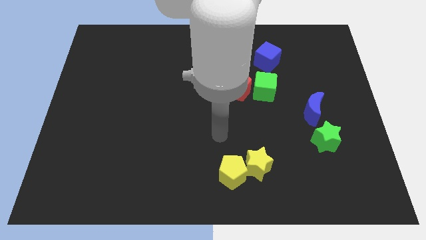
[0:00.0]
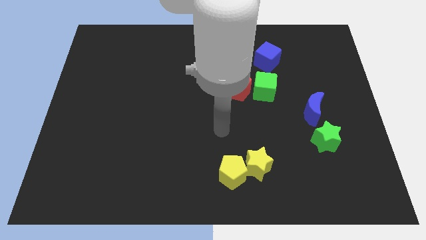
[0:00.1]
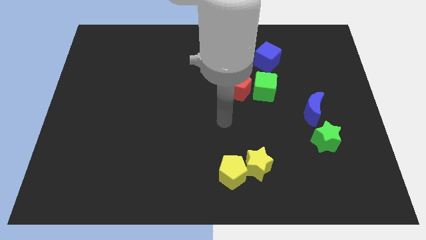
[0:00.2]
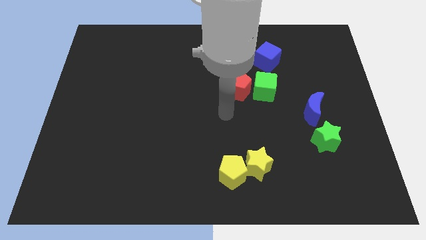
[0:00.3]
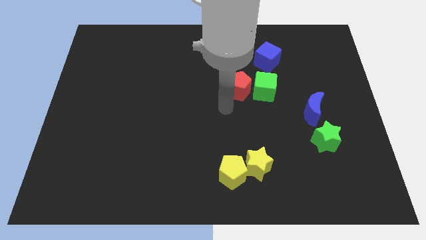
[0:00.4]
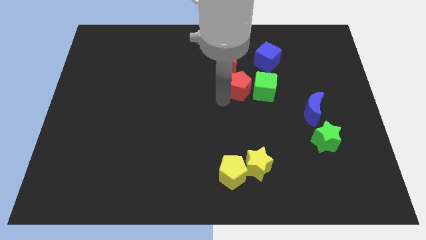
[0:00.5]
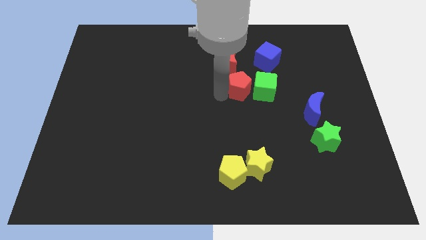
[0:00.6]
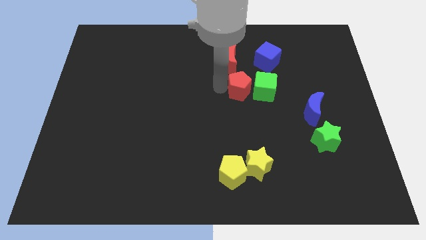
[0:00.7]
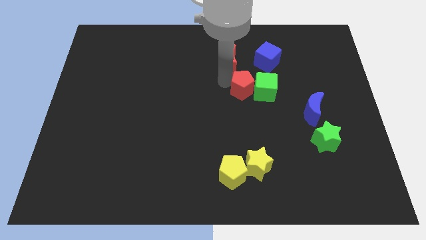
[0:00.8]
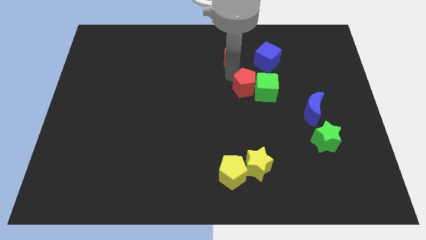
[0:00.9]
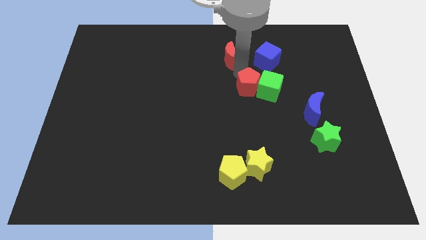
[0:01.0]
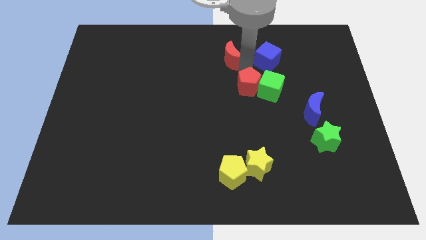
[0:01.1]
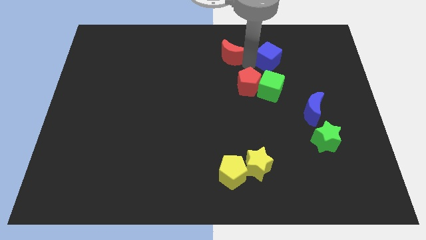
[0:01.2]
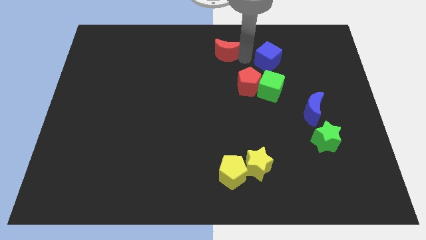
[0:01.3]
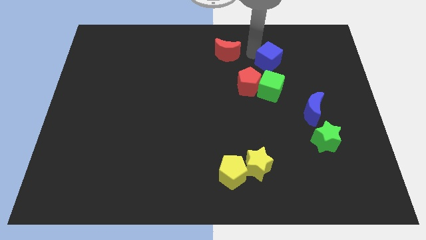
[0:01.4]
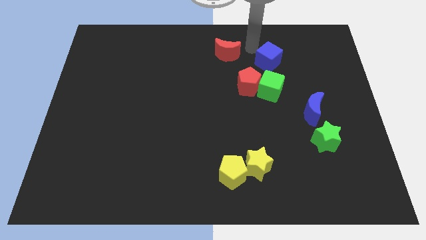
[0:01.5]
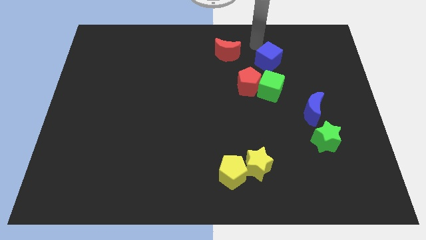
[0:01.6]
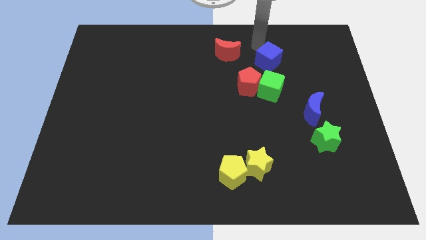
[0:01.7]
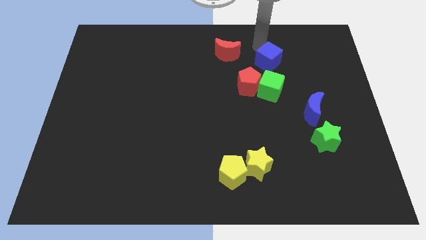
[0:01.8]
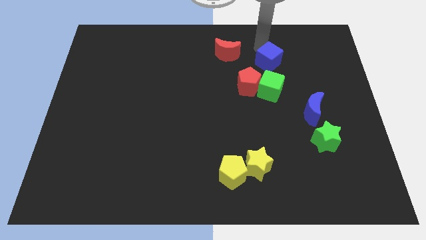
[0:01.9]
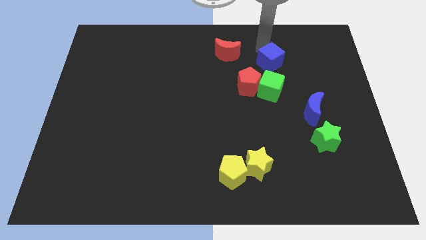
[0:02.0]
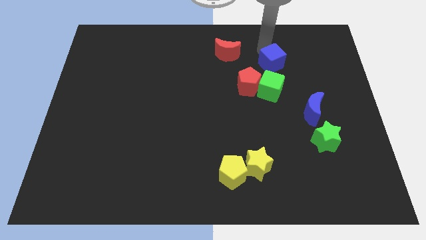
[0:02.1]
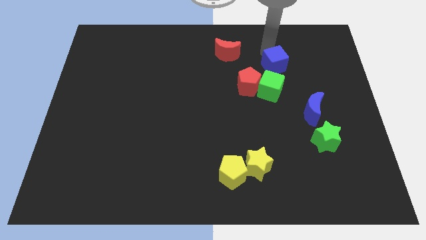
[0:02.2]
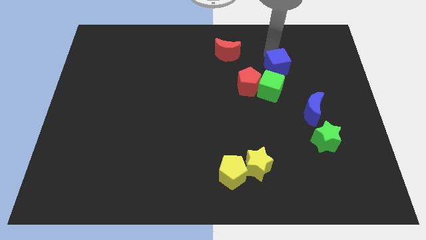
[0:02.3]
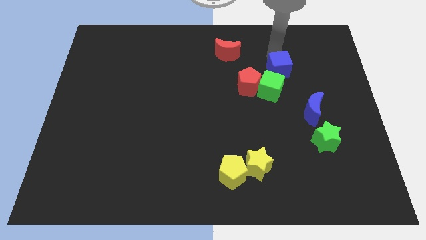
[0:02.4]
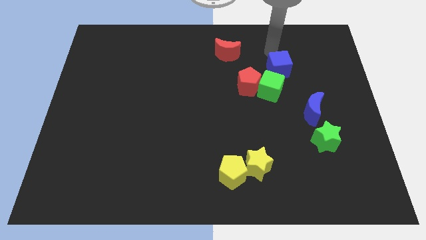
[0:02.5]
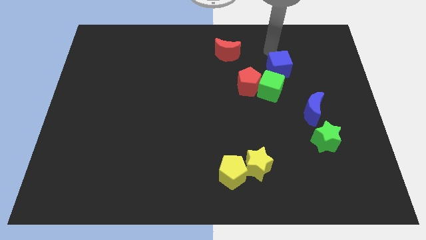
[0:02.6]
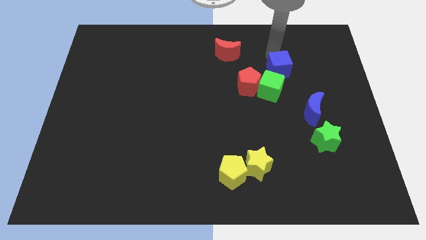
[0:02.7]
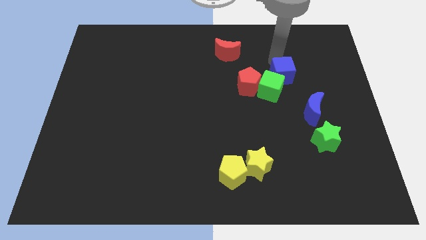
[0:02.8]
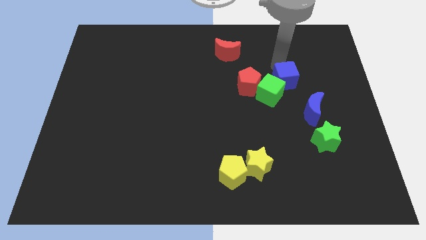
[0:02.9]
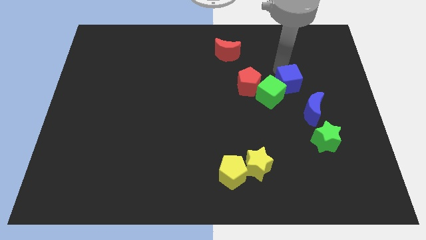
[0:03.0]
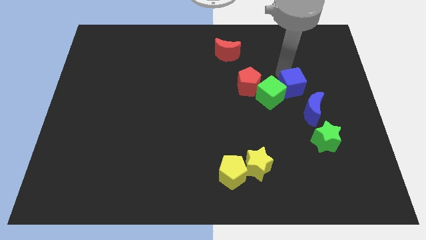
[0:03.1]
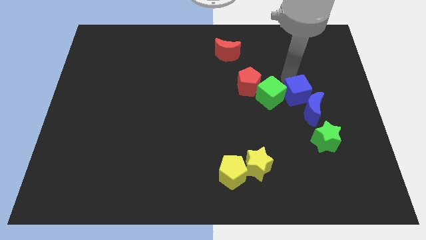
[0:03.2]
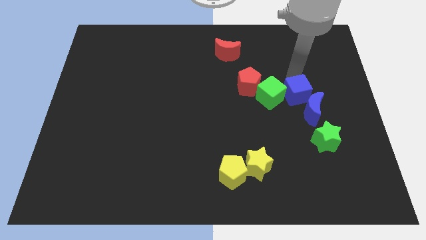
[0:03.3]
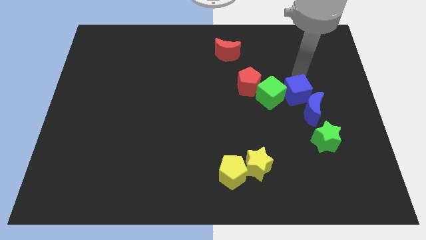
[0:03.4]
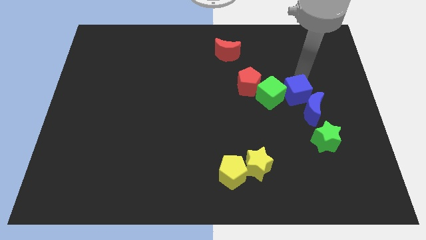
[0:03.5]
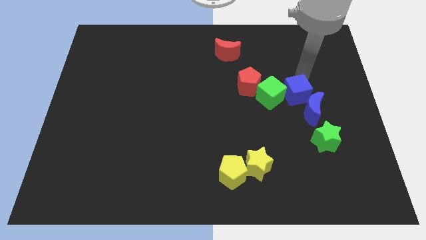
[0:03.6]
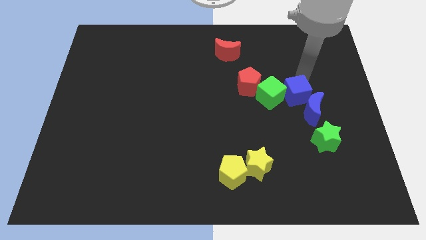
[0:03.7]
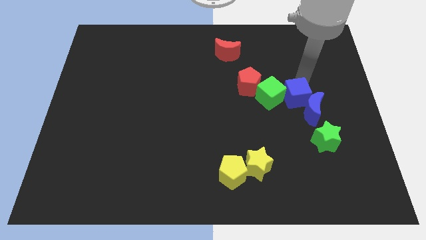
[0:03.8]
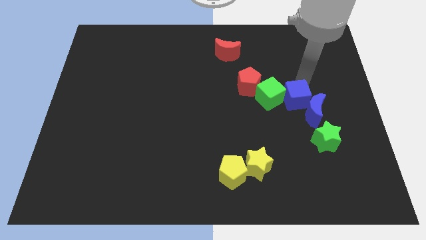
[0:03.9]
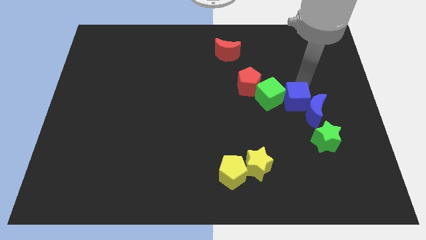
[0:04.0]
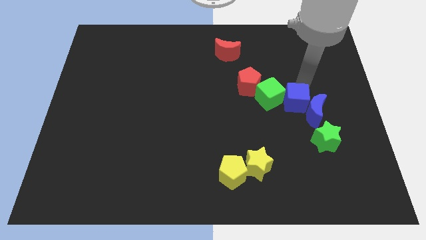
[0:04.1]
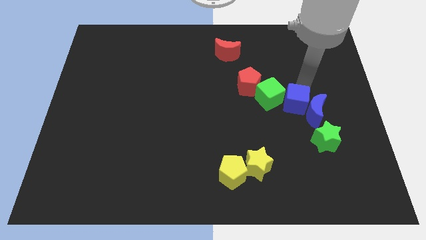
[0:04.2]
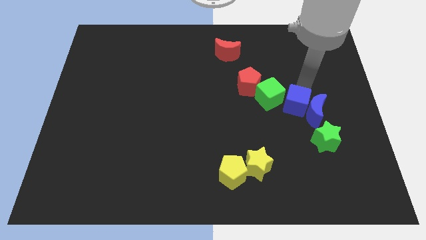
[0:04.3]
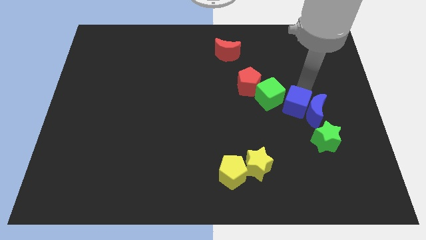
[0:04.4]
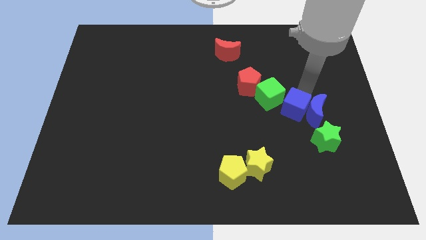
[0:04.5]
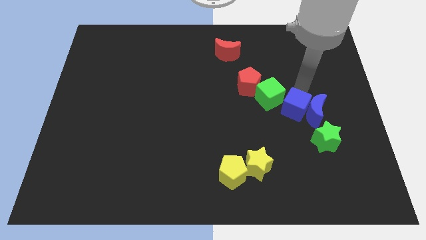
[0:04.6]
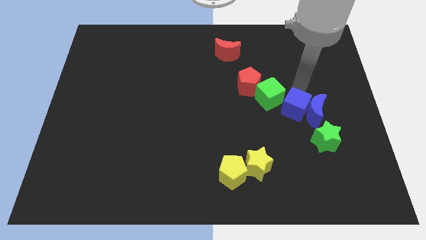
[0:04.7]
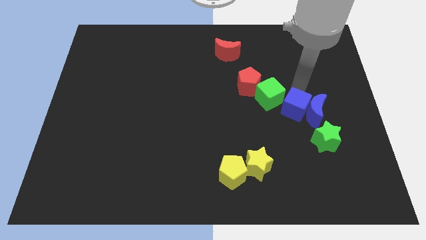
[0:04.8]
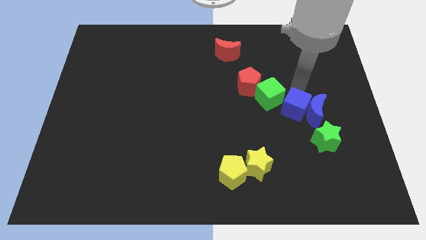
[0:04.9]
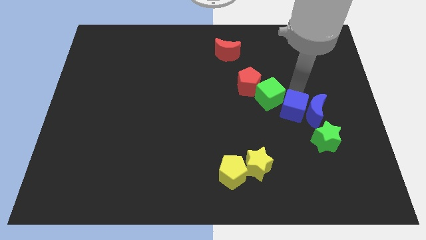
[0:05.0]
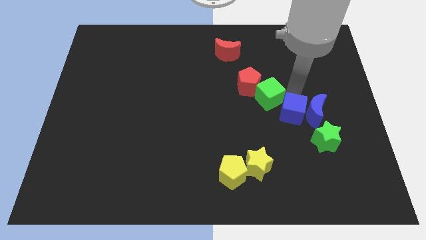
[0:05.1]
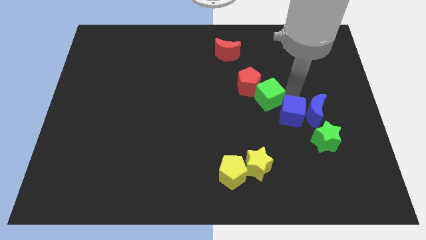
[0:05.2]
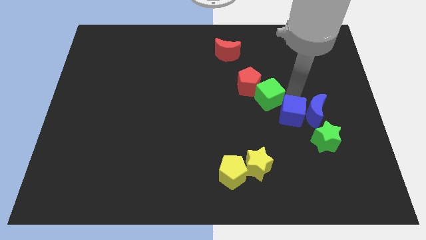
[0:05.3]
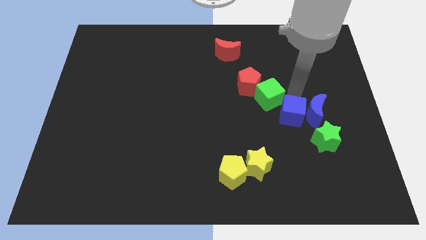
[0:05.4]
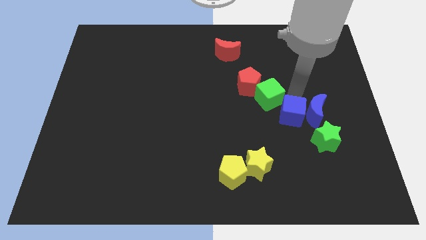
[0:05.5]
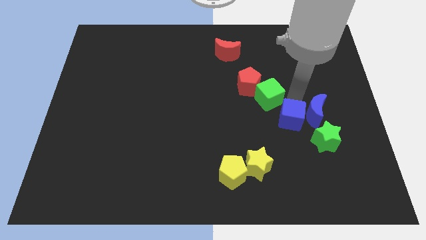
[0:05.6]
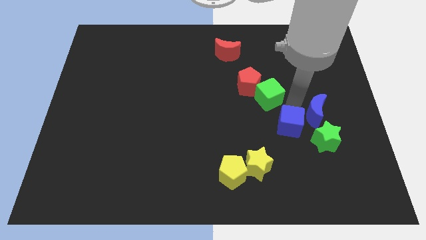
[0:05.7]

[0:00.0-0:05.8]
slide the blue cube down

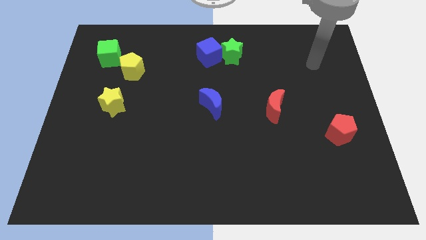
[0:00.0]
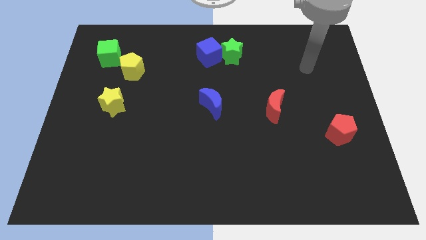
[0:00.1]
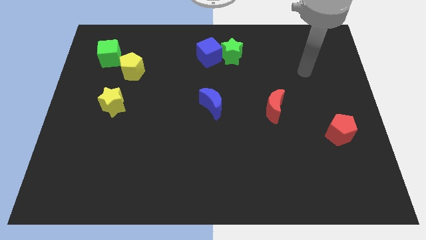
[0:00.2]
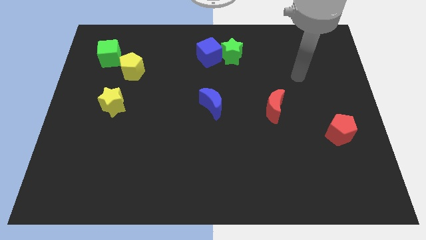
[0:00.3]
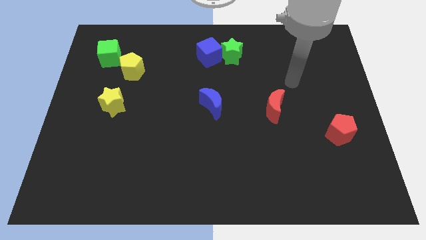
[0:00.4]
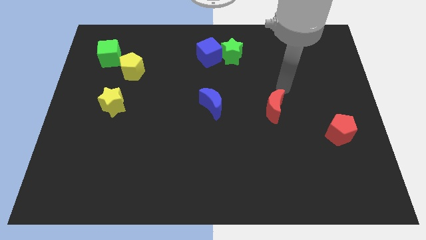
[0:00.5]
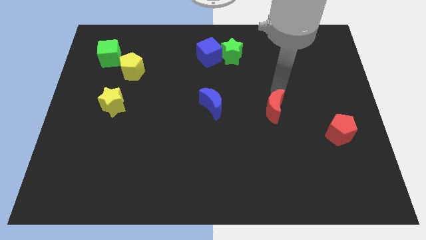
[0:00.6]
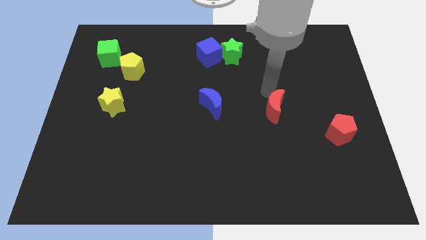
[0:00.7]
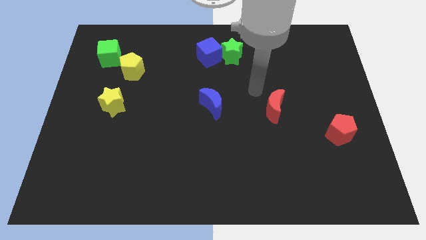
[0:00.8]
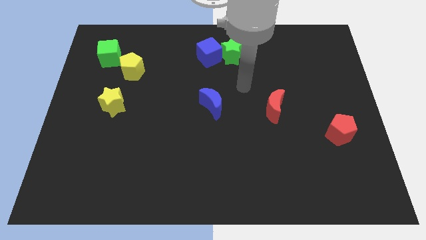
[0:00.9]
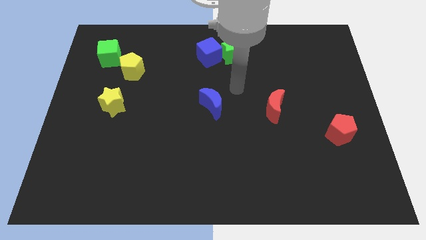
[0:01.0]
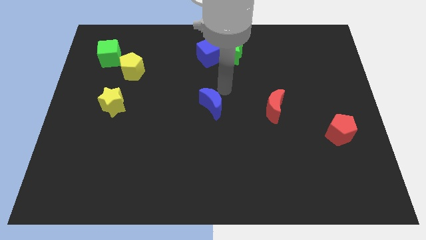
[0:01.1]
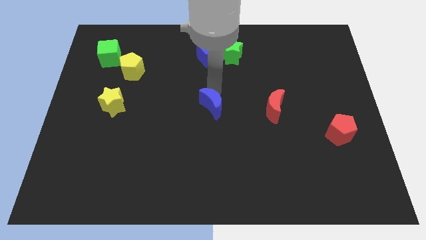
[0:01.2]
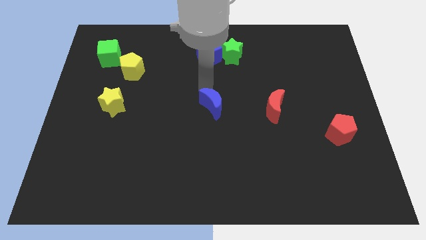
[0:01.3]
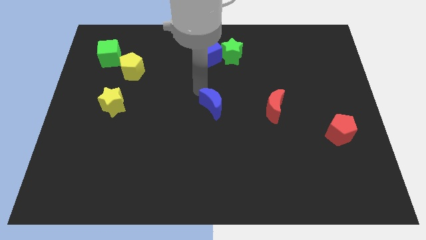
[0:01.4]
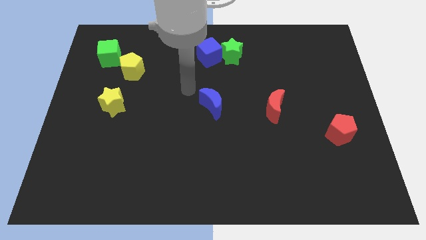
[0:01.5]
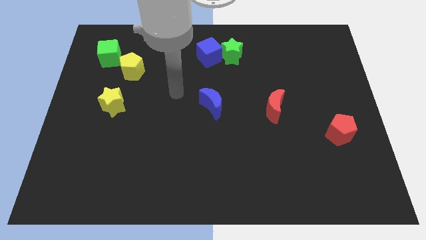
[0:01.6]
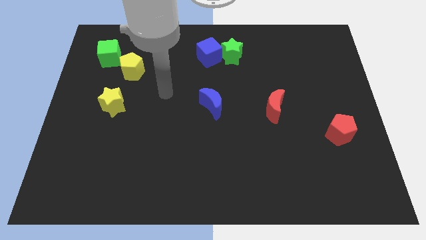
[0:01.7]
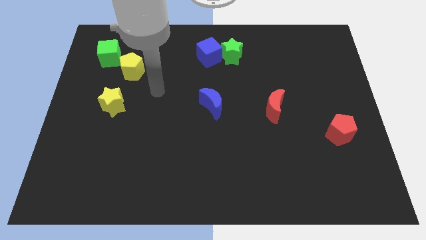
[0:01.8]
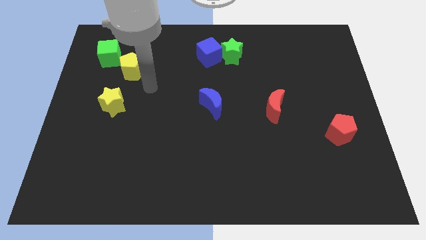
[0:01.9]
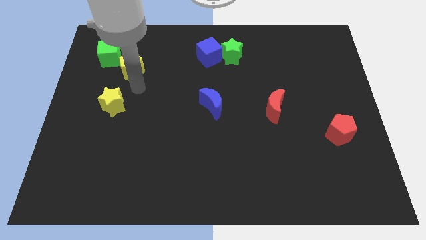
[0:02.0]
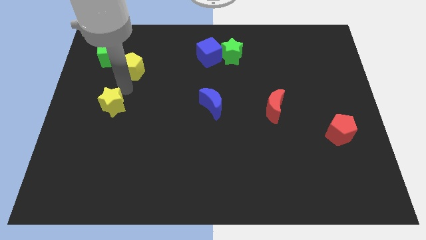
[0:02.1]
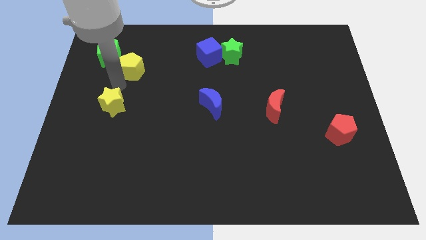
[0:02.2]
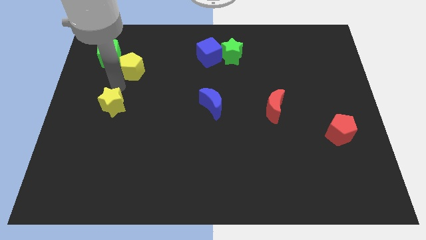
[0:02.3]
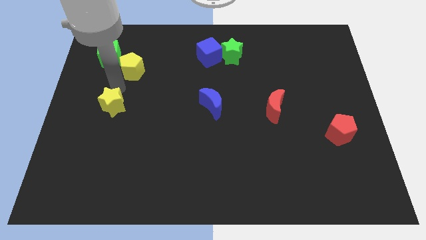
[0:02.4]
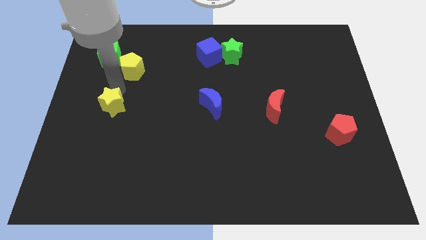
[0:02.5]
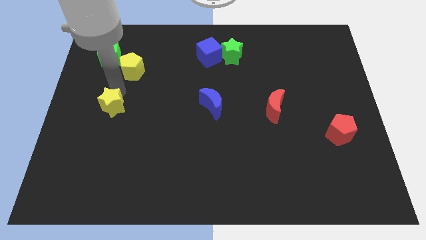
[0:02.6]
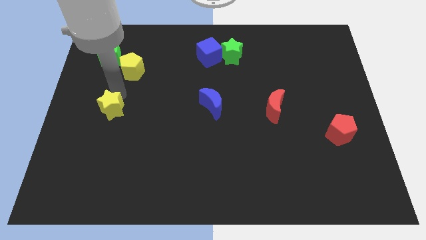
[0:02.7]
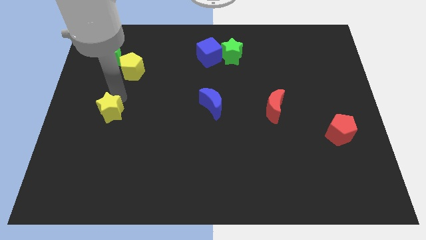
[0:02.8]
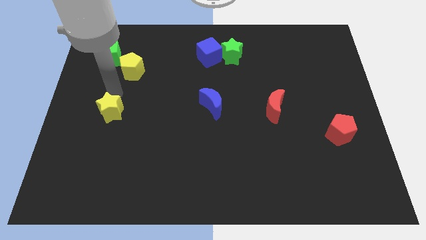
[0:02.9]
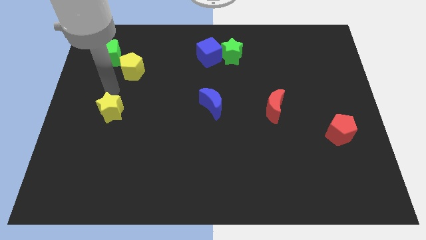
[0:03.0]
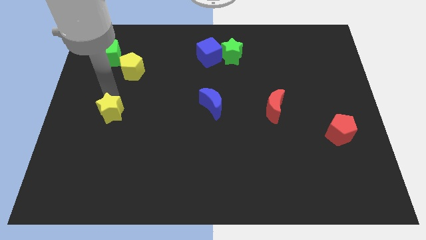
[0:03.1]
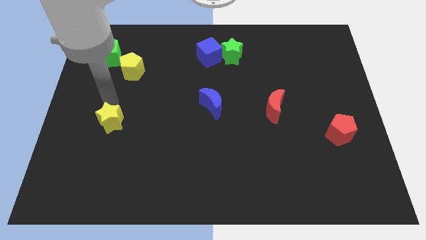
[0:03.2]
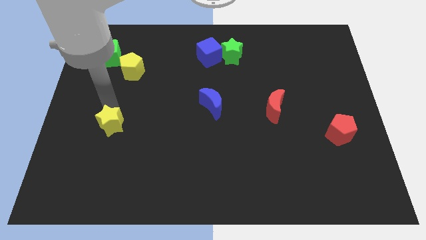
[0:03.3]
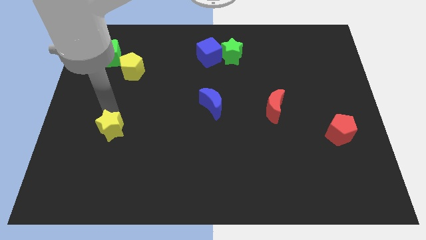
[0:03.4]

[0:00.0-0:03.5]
slide the yellow star down slightly
